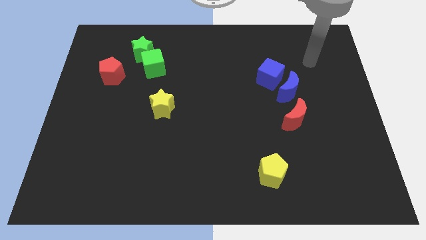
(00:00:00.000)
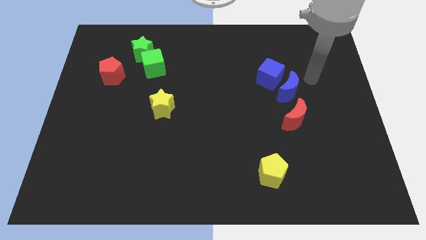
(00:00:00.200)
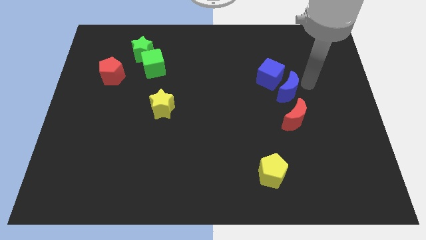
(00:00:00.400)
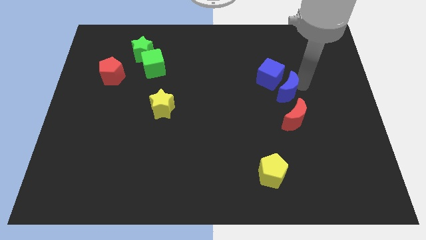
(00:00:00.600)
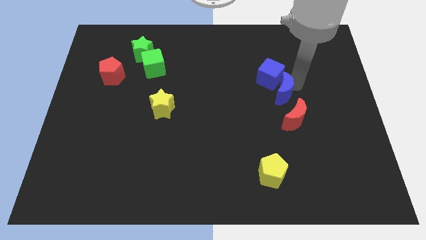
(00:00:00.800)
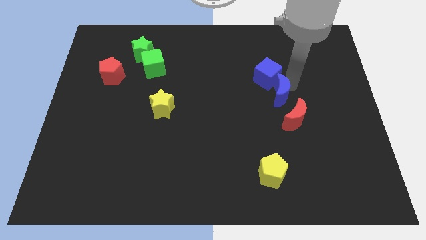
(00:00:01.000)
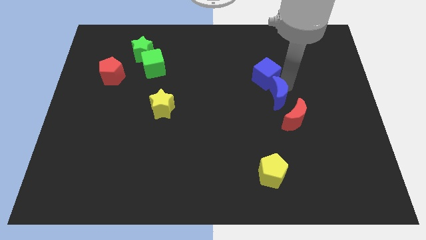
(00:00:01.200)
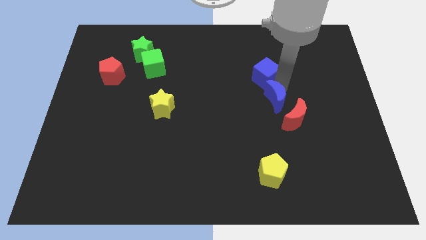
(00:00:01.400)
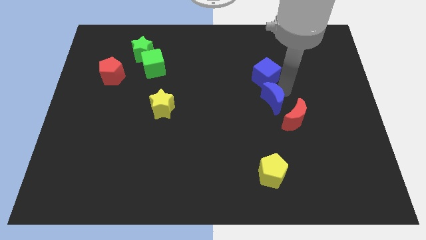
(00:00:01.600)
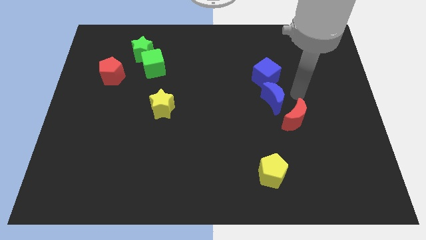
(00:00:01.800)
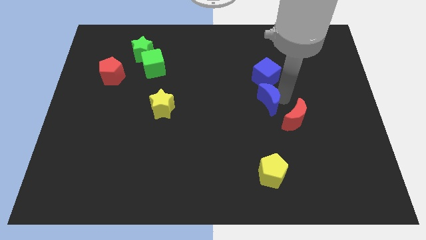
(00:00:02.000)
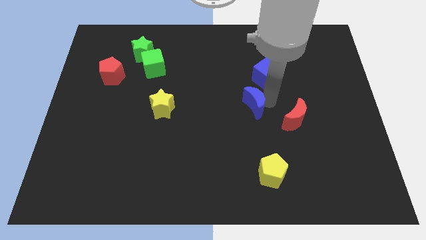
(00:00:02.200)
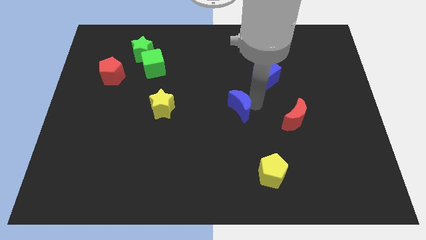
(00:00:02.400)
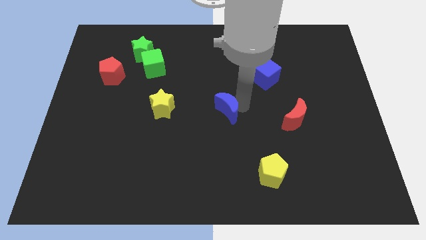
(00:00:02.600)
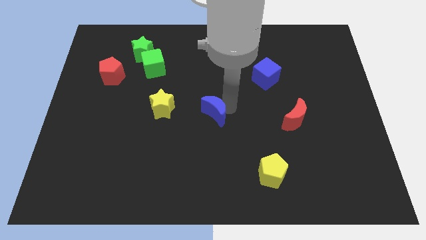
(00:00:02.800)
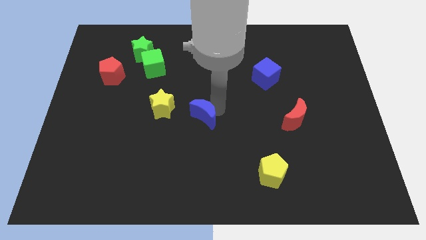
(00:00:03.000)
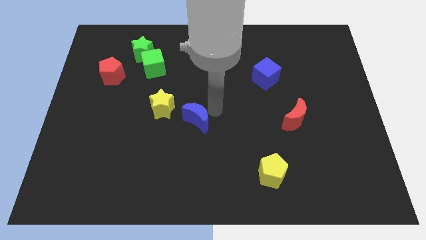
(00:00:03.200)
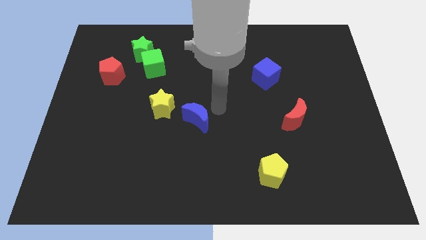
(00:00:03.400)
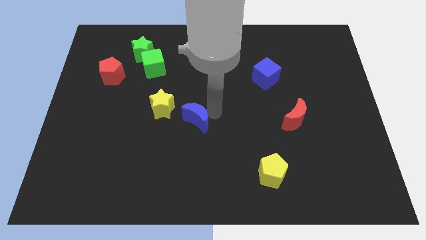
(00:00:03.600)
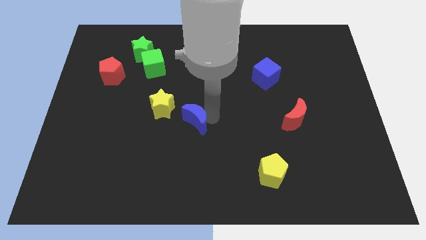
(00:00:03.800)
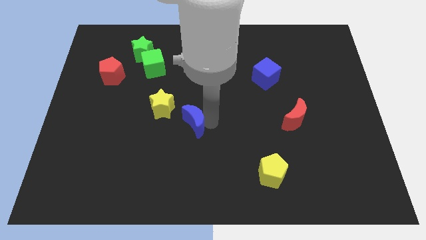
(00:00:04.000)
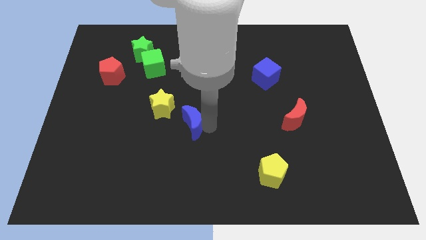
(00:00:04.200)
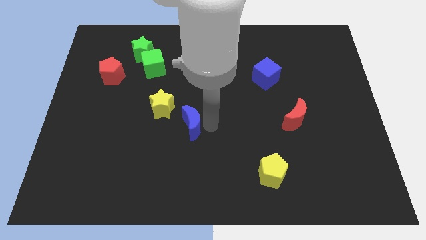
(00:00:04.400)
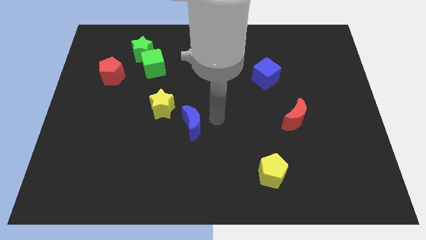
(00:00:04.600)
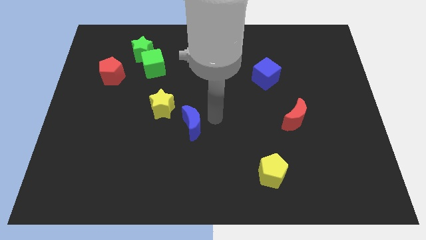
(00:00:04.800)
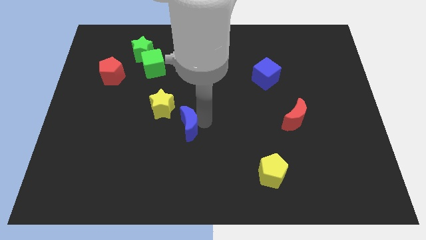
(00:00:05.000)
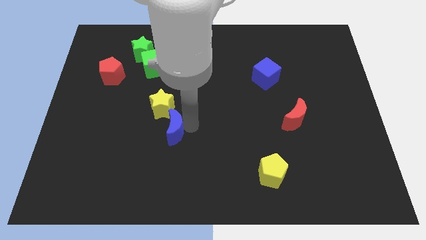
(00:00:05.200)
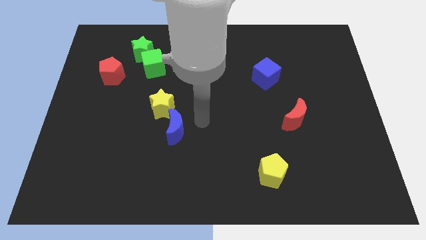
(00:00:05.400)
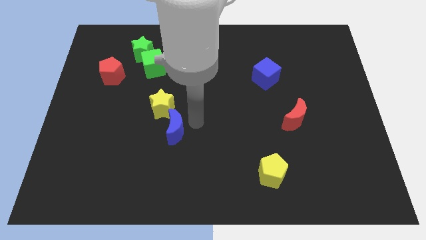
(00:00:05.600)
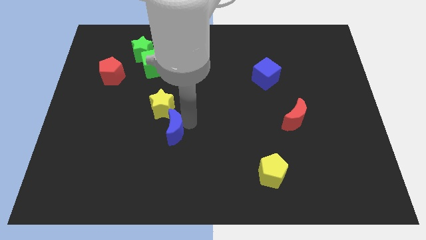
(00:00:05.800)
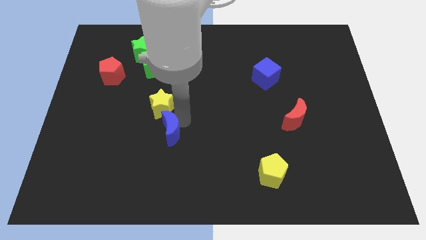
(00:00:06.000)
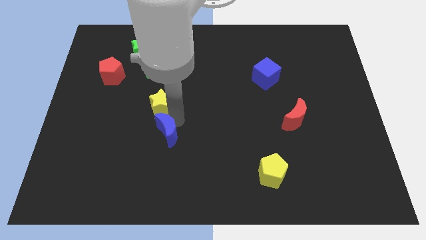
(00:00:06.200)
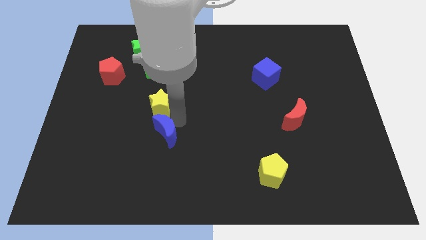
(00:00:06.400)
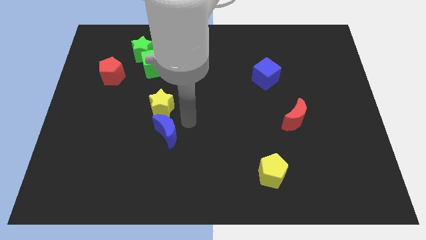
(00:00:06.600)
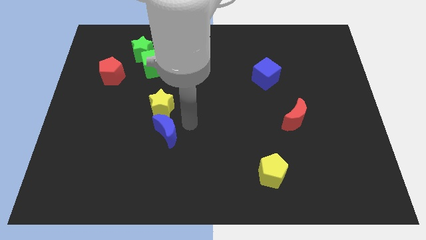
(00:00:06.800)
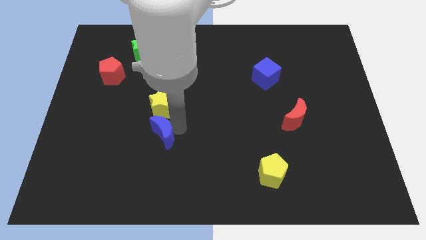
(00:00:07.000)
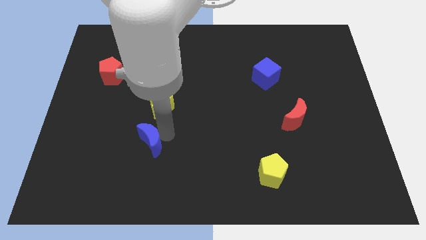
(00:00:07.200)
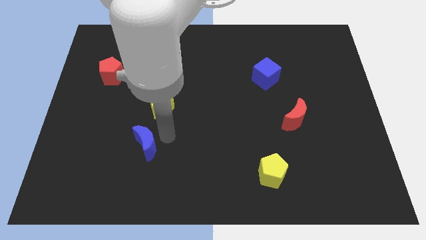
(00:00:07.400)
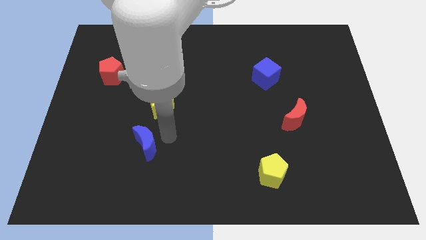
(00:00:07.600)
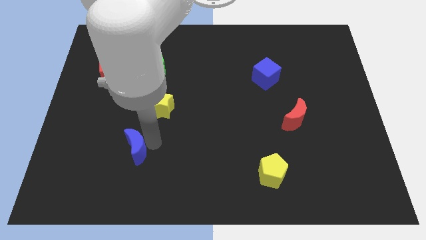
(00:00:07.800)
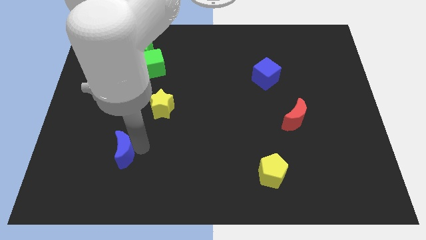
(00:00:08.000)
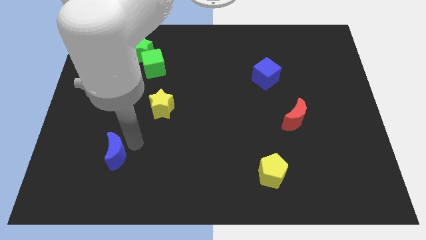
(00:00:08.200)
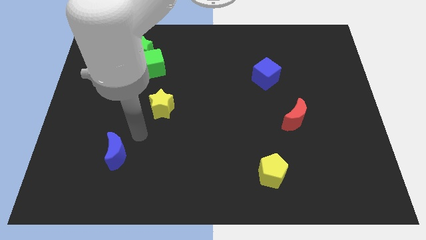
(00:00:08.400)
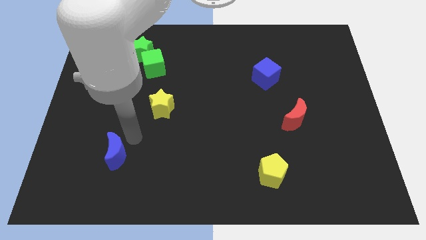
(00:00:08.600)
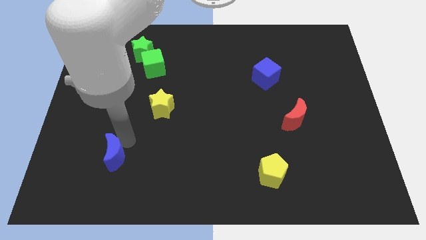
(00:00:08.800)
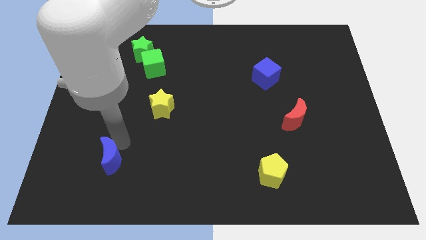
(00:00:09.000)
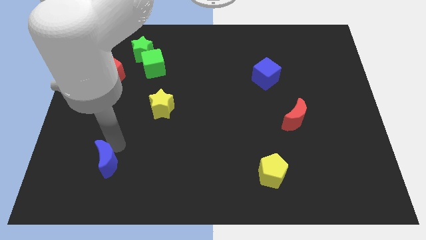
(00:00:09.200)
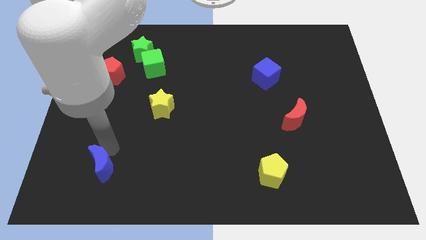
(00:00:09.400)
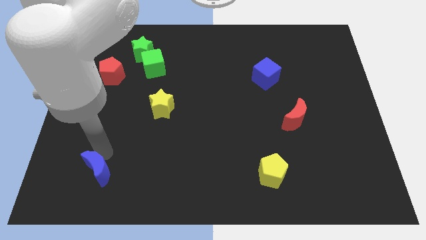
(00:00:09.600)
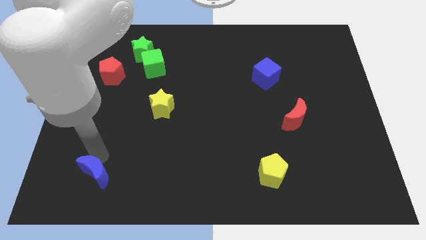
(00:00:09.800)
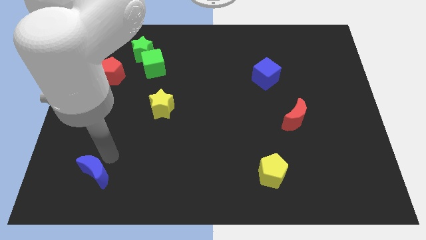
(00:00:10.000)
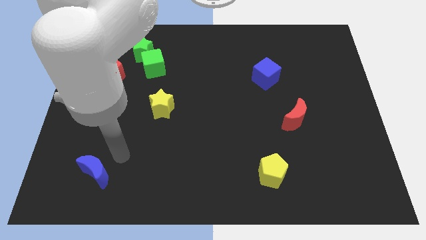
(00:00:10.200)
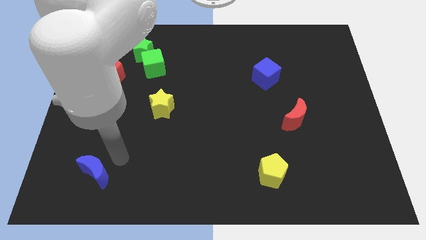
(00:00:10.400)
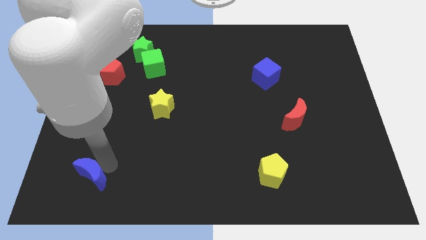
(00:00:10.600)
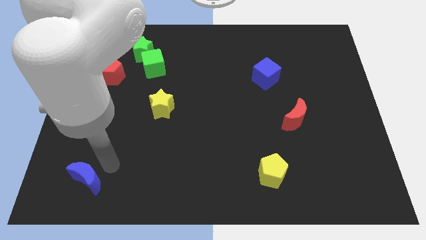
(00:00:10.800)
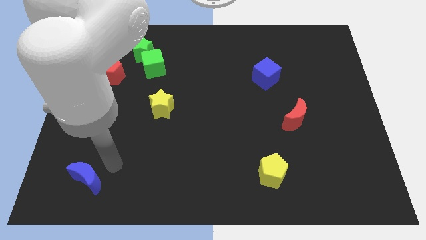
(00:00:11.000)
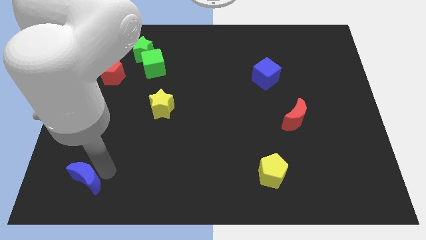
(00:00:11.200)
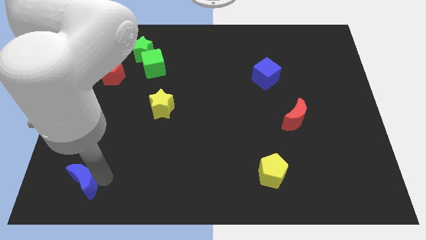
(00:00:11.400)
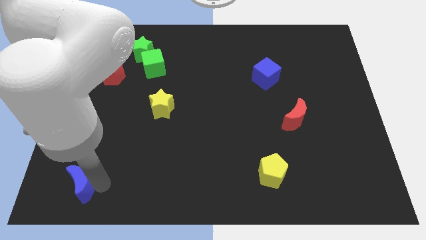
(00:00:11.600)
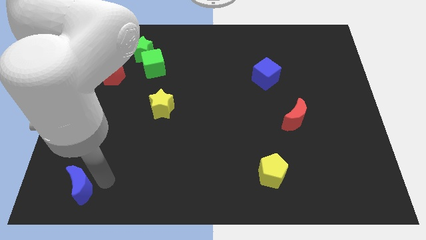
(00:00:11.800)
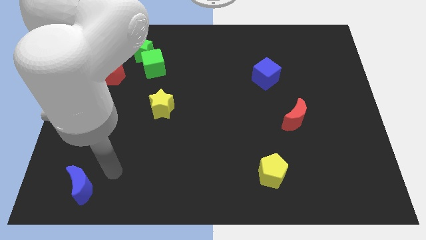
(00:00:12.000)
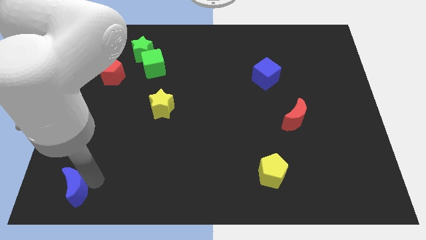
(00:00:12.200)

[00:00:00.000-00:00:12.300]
put the blue moon to the lower left corner

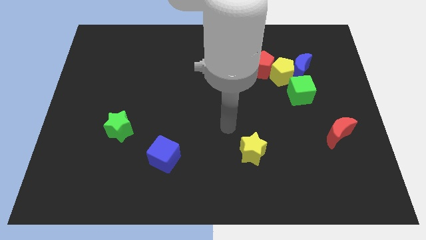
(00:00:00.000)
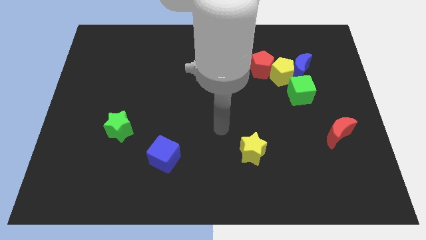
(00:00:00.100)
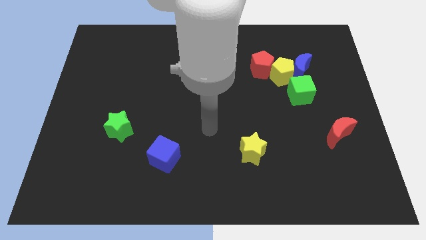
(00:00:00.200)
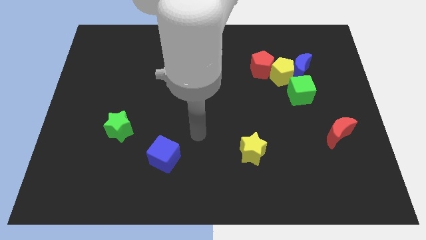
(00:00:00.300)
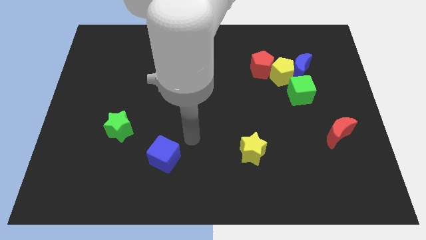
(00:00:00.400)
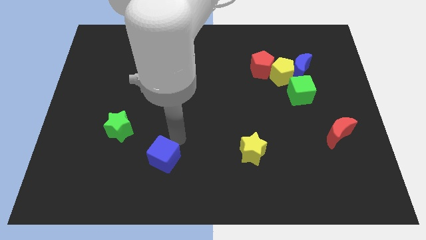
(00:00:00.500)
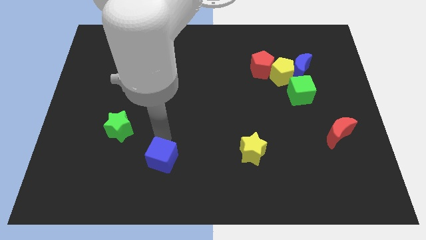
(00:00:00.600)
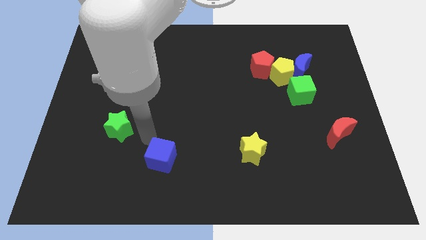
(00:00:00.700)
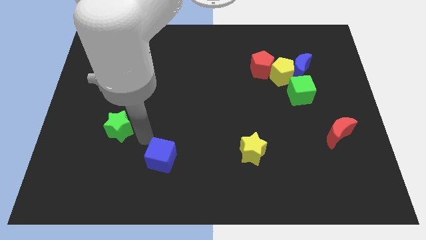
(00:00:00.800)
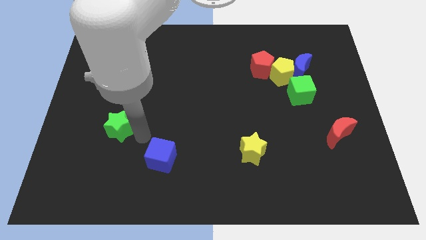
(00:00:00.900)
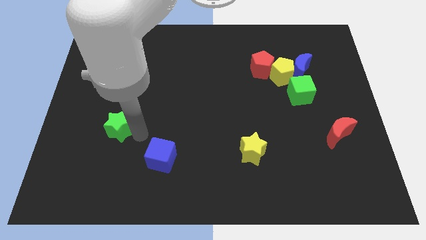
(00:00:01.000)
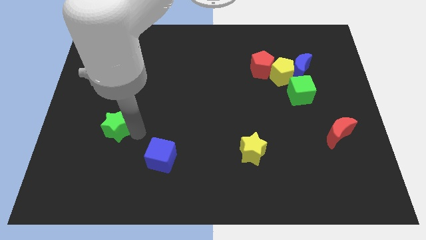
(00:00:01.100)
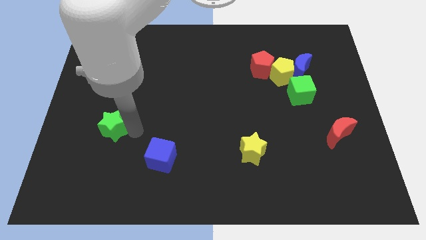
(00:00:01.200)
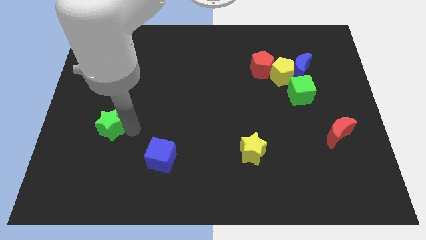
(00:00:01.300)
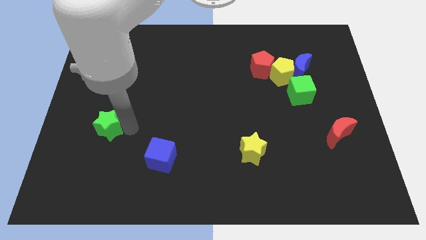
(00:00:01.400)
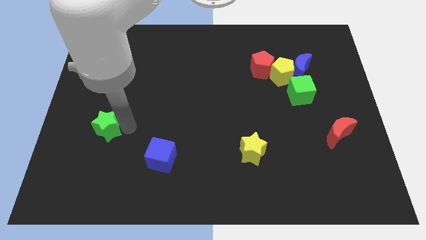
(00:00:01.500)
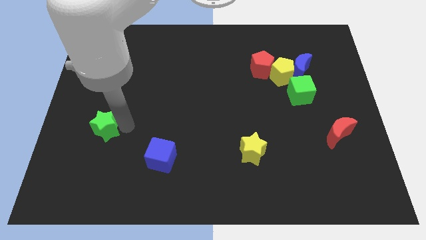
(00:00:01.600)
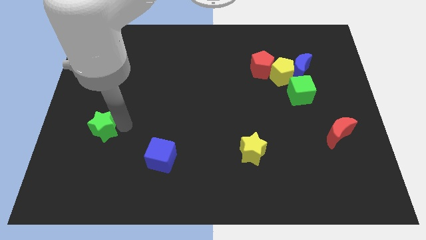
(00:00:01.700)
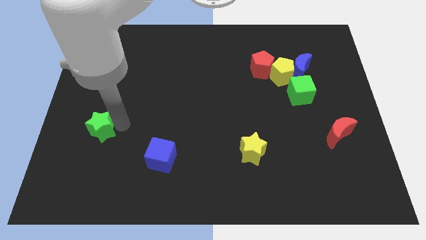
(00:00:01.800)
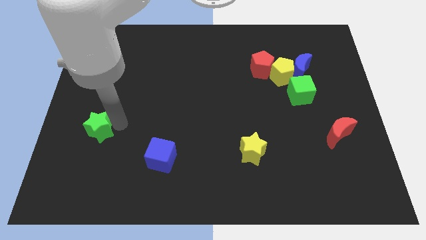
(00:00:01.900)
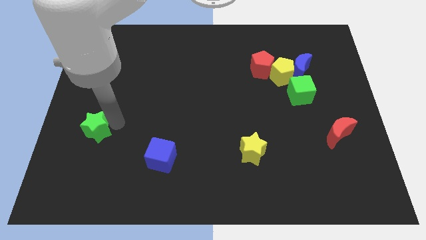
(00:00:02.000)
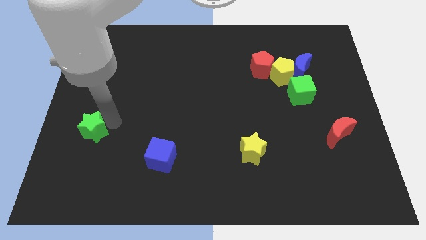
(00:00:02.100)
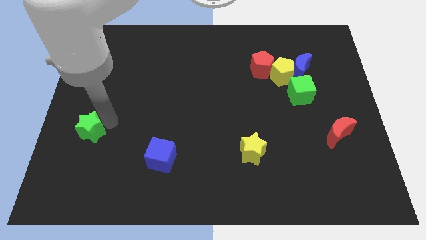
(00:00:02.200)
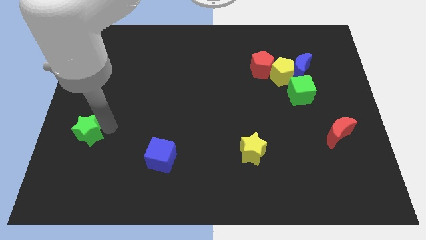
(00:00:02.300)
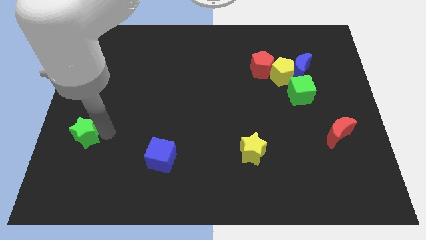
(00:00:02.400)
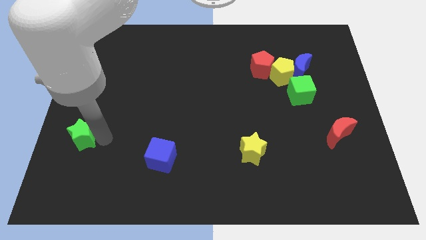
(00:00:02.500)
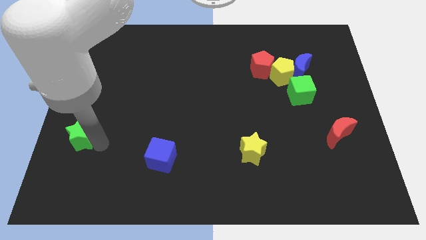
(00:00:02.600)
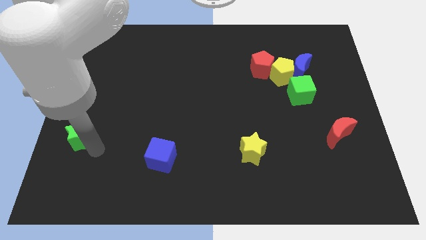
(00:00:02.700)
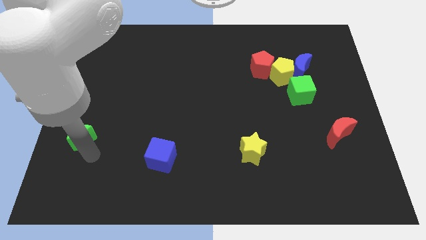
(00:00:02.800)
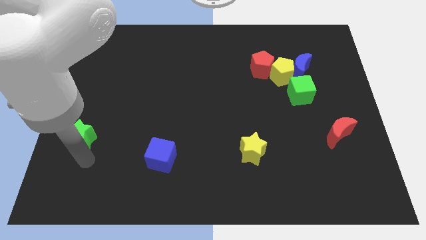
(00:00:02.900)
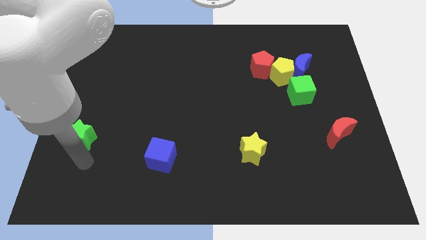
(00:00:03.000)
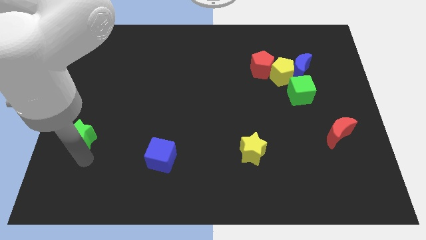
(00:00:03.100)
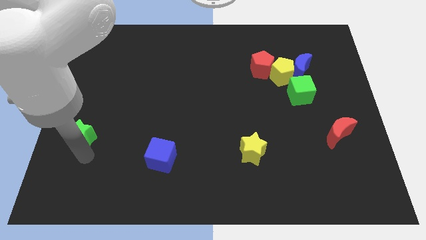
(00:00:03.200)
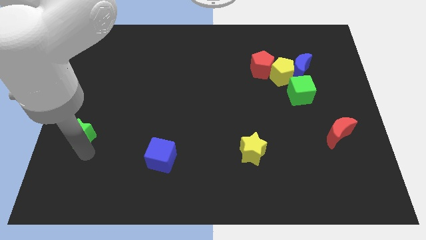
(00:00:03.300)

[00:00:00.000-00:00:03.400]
slide the green star to the left side
